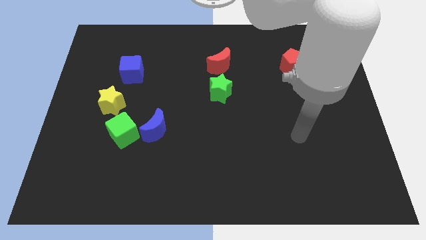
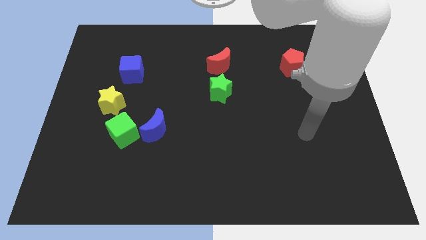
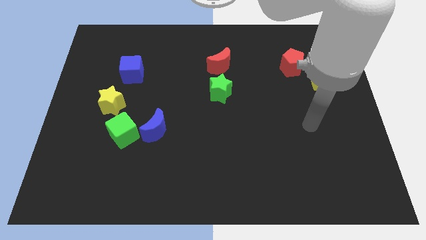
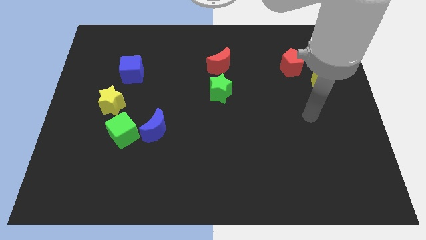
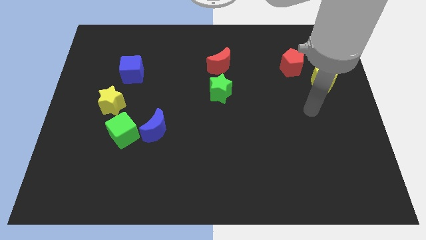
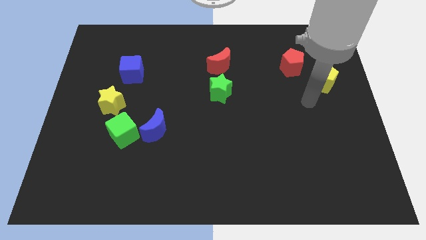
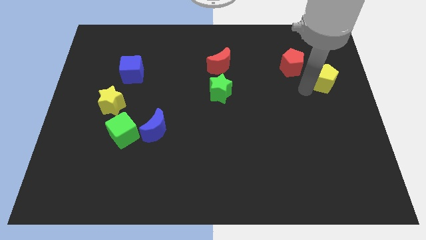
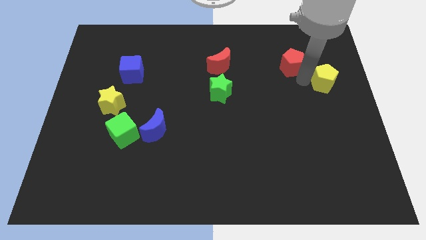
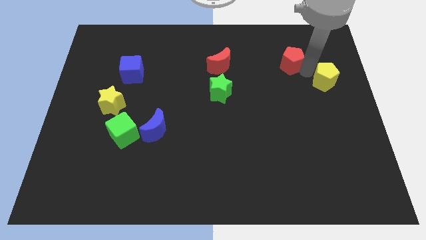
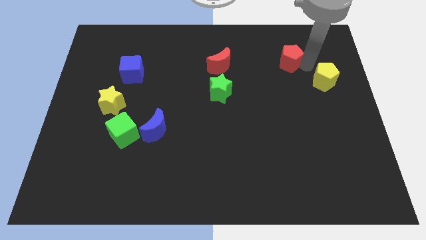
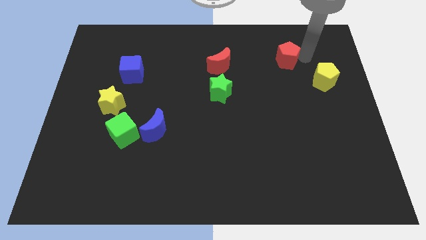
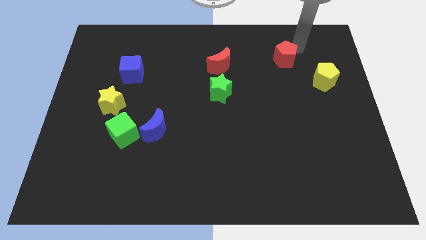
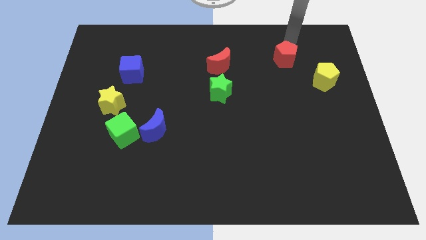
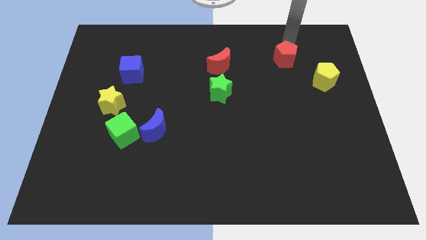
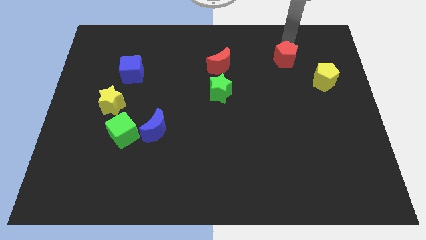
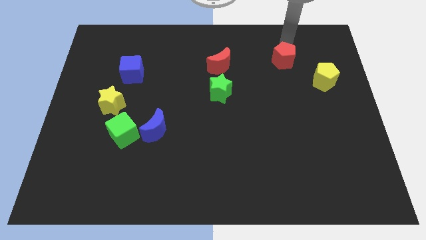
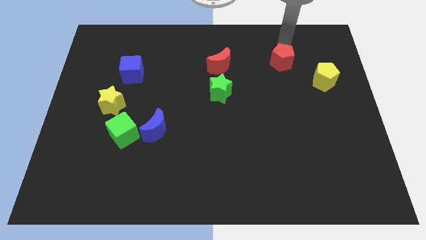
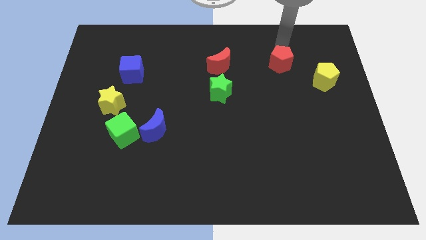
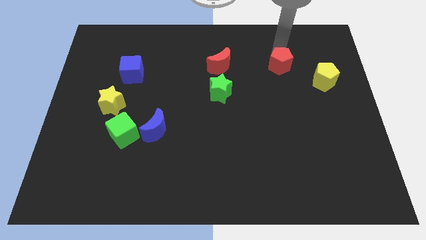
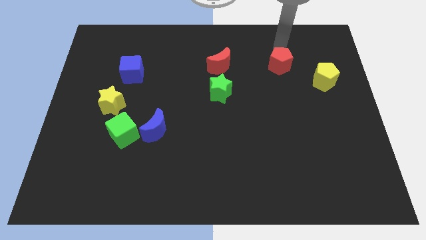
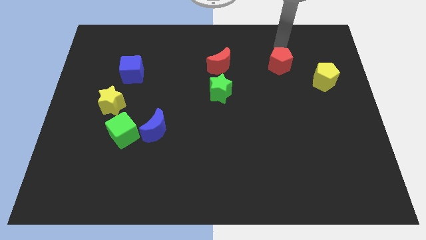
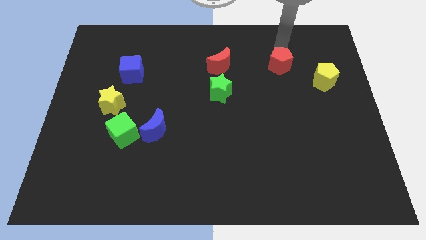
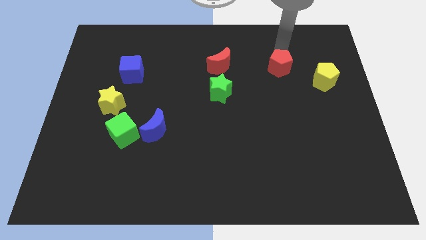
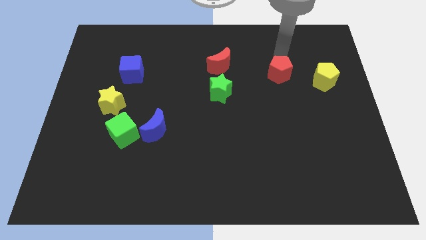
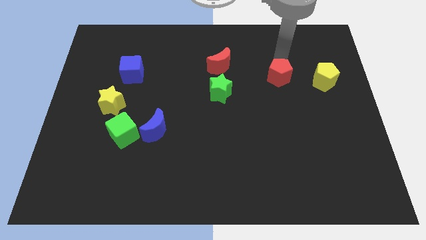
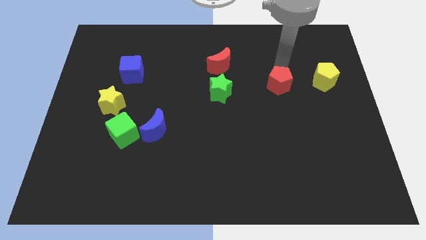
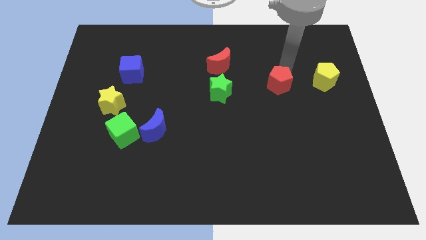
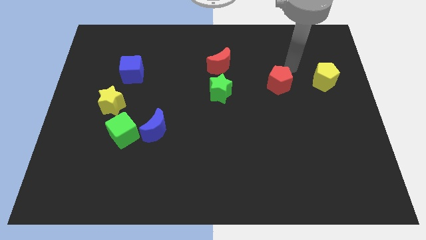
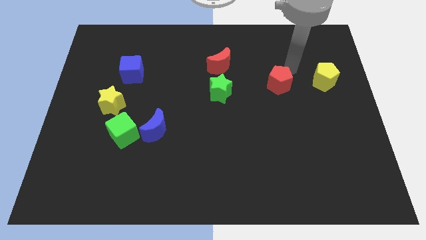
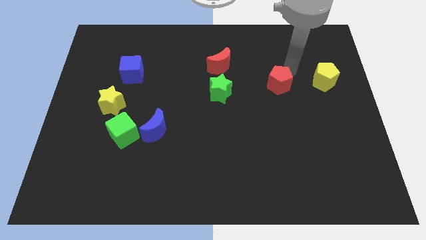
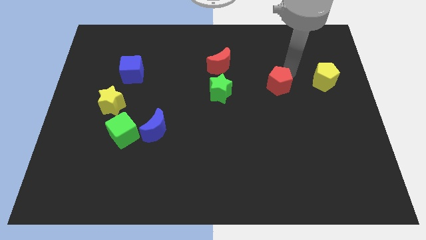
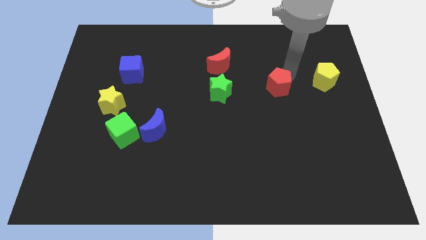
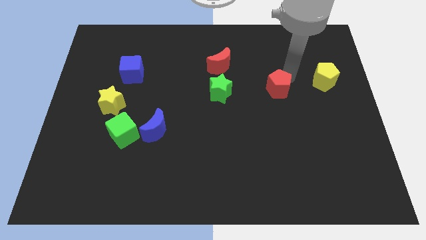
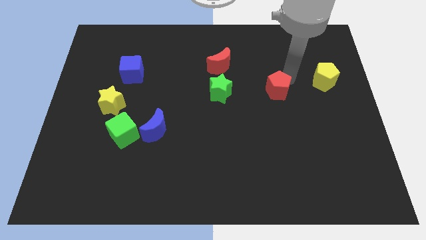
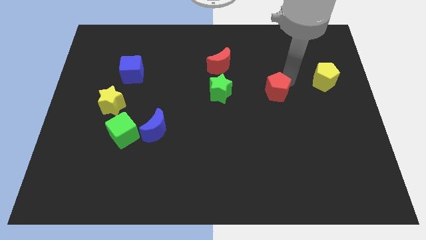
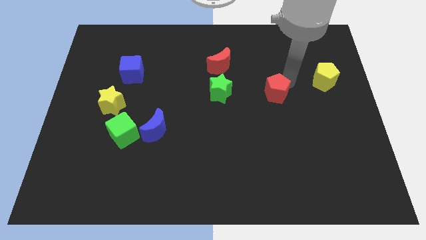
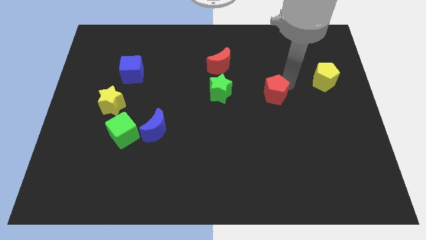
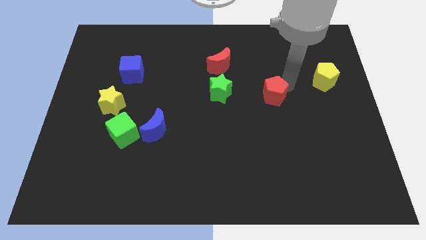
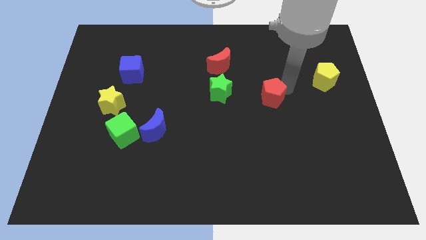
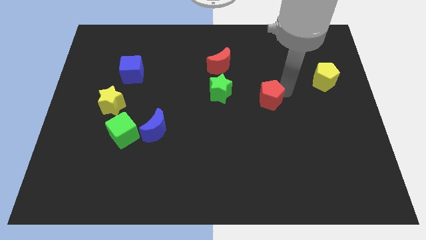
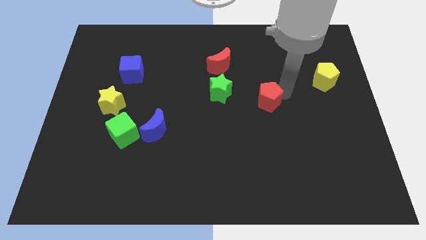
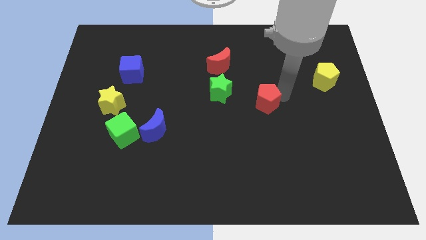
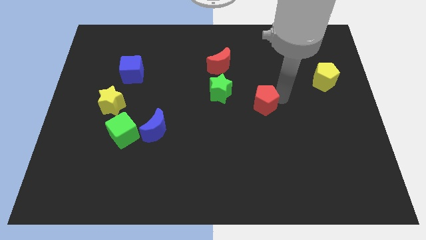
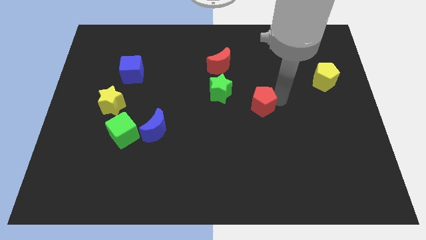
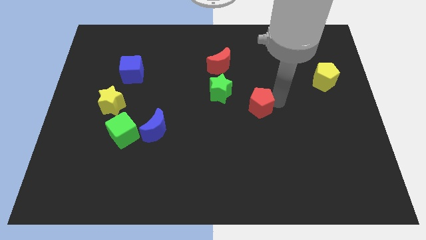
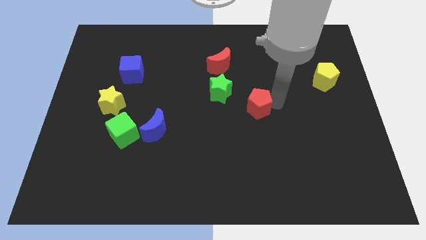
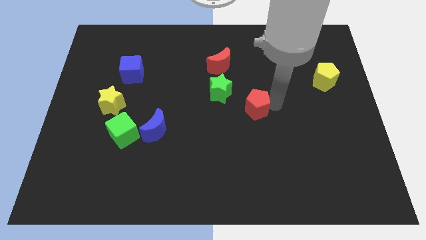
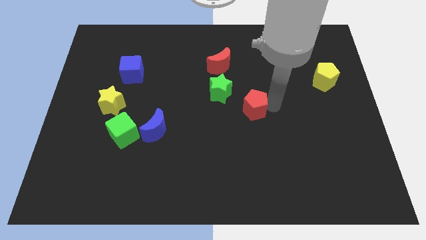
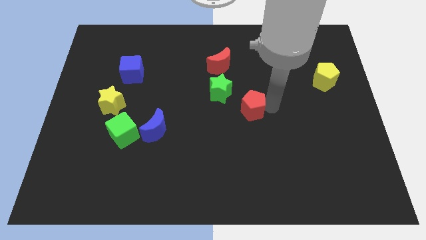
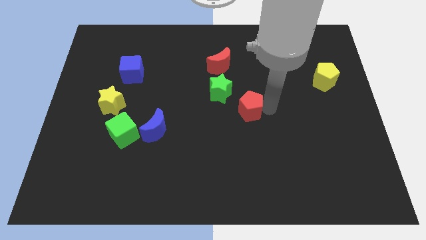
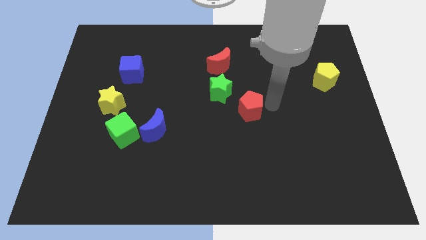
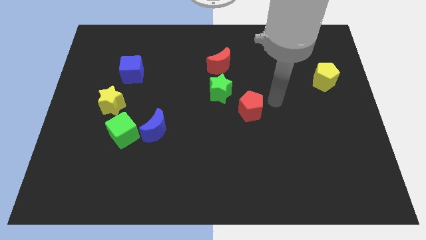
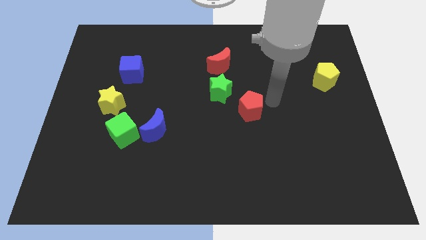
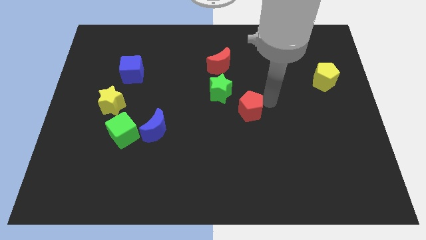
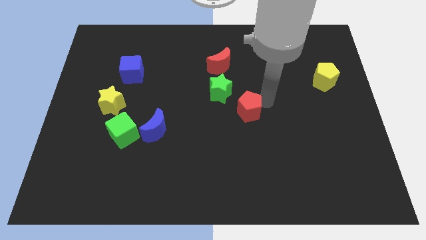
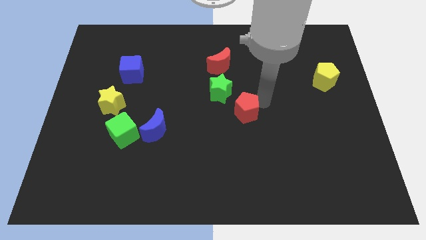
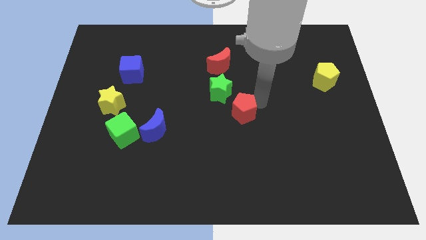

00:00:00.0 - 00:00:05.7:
slide the red pentagon down and left diagonally

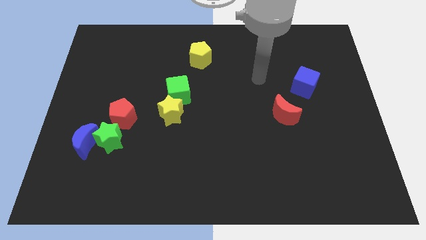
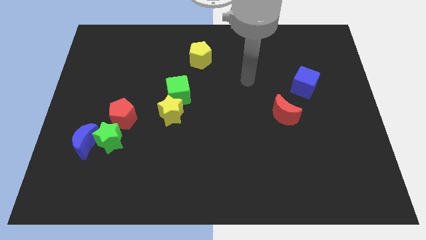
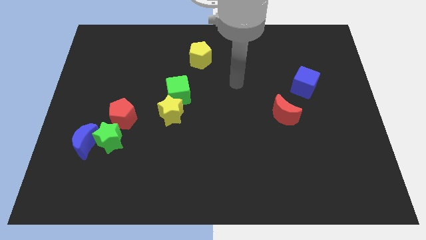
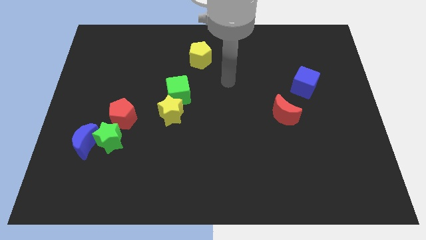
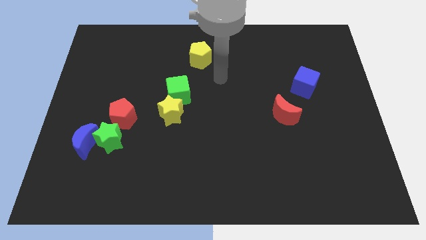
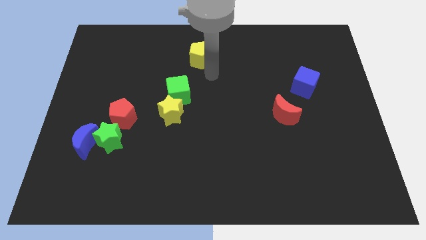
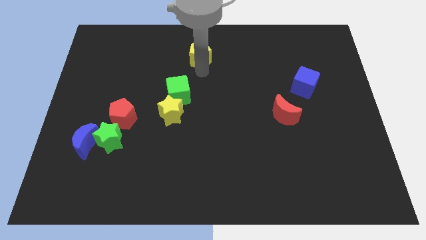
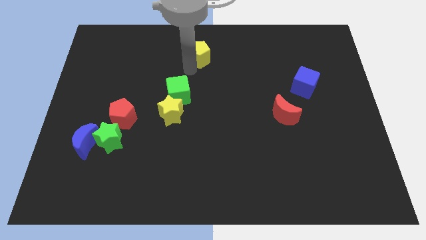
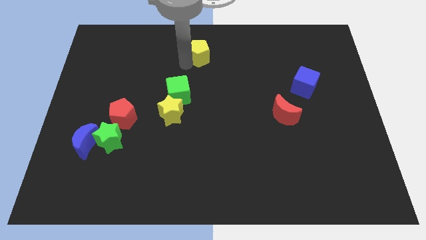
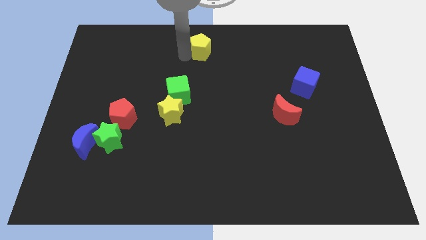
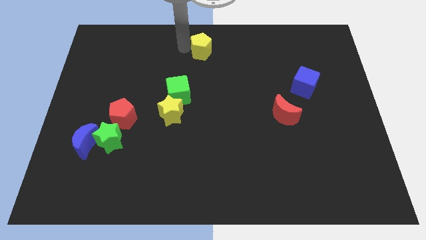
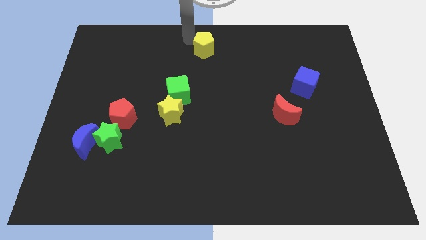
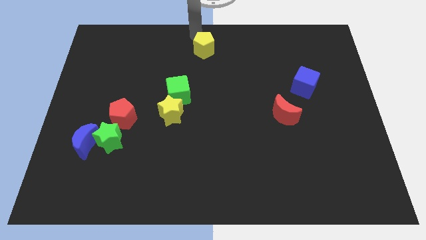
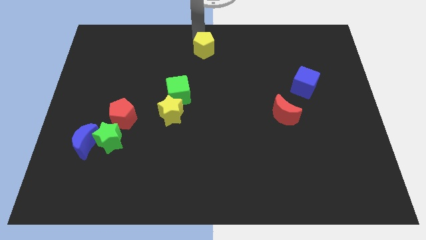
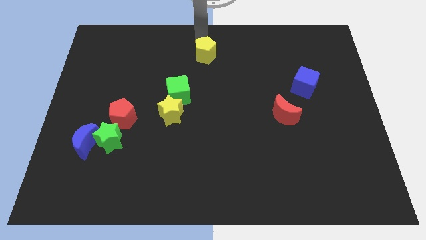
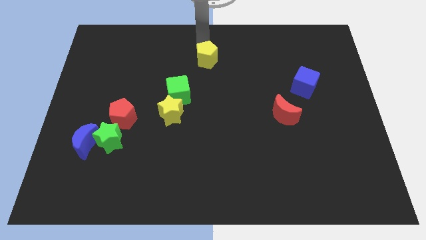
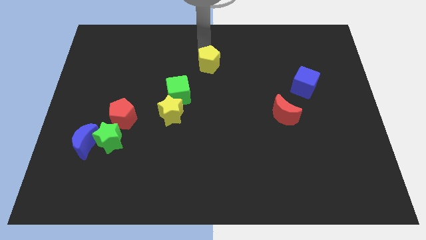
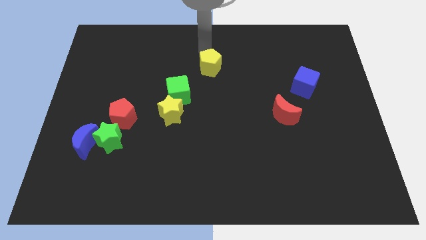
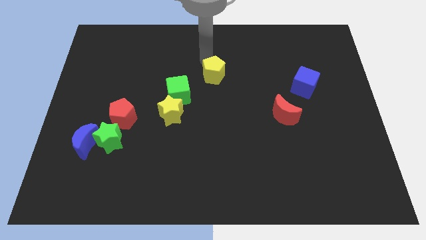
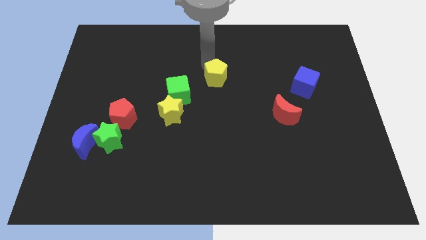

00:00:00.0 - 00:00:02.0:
move the yellow pentagon a bit down and to the right diagonally
